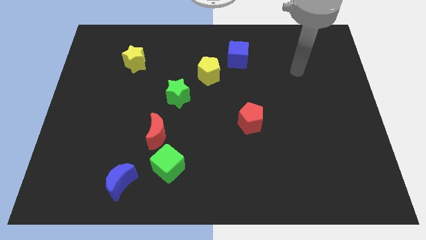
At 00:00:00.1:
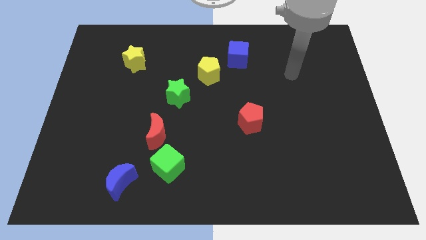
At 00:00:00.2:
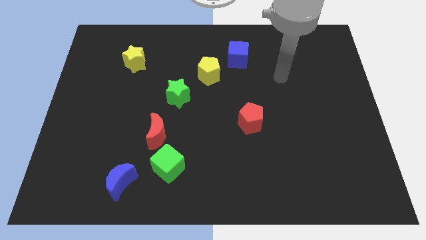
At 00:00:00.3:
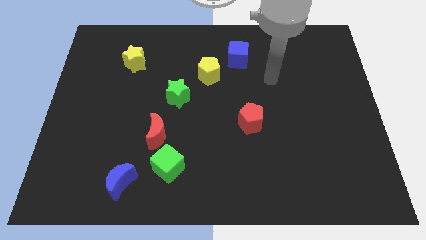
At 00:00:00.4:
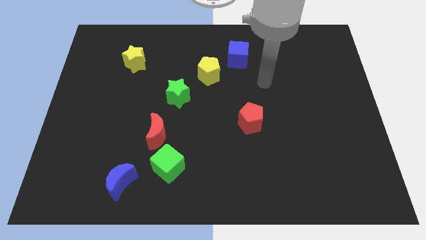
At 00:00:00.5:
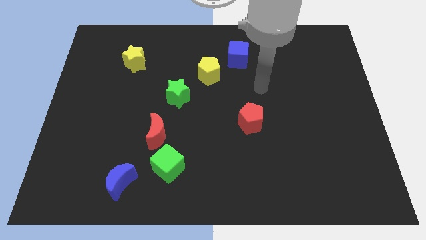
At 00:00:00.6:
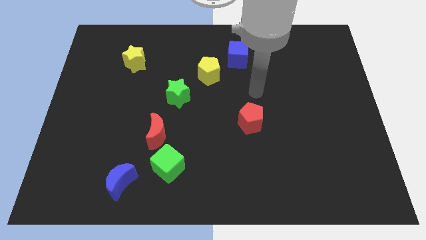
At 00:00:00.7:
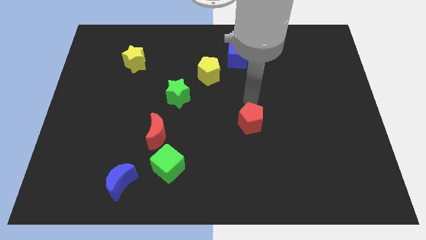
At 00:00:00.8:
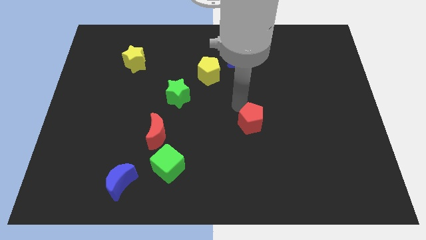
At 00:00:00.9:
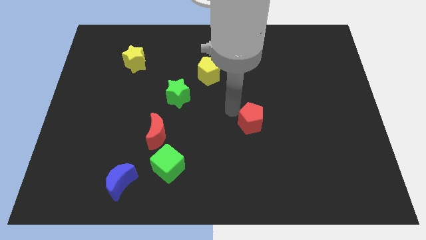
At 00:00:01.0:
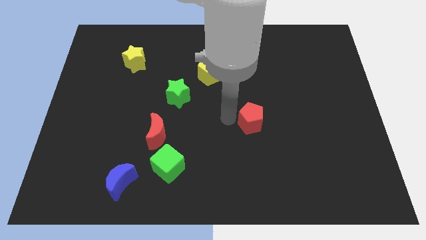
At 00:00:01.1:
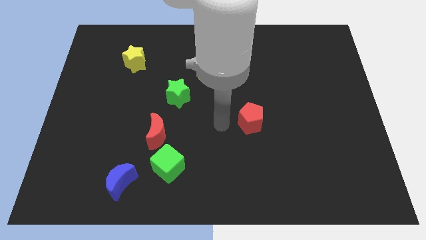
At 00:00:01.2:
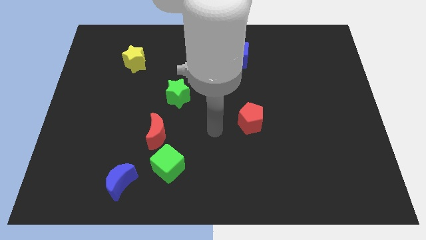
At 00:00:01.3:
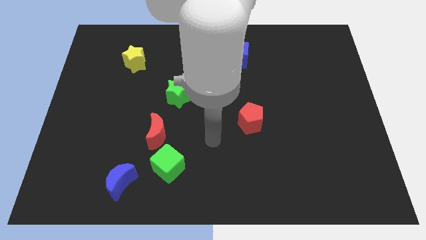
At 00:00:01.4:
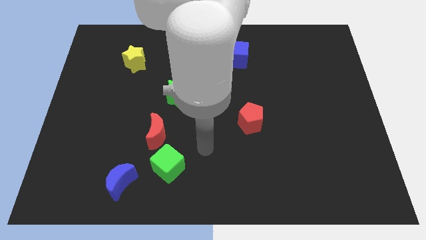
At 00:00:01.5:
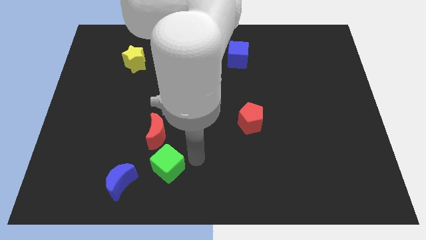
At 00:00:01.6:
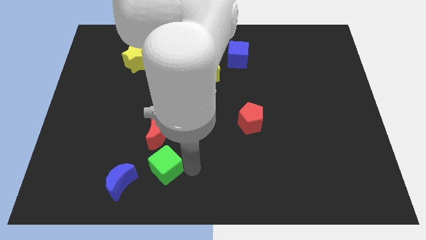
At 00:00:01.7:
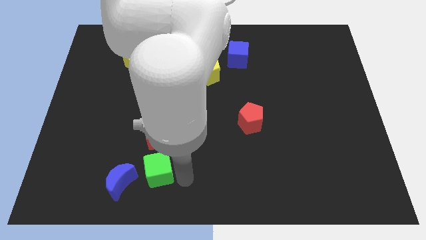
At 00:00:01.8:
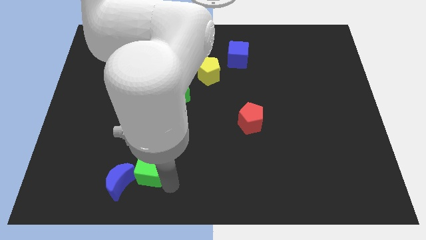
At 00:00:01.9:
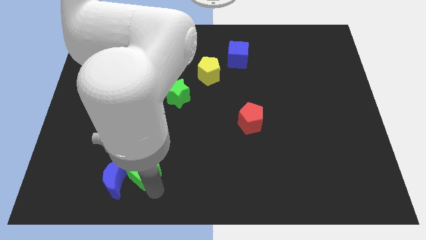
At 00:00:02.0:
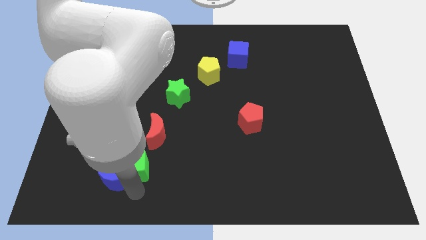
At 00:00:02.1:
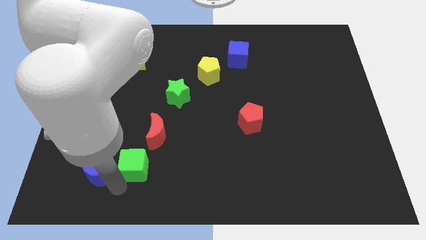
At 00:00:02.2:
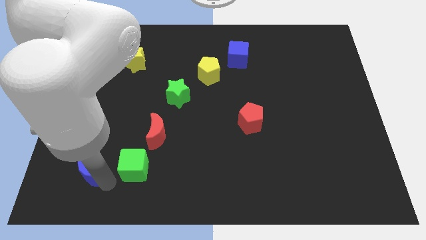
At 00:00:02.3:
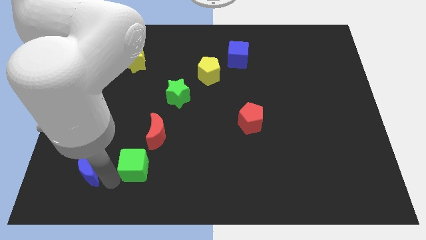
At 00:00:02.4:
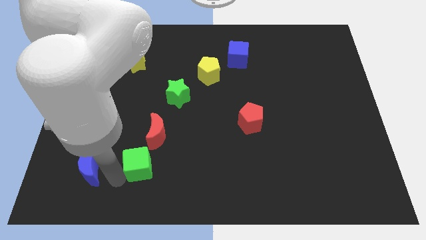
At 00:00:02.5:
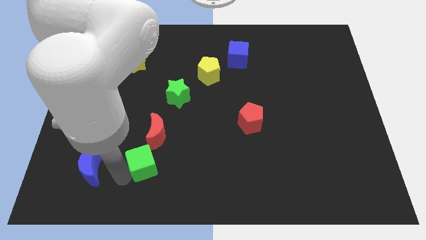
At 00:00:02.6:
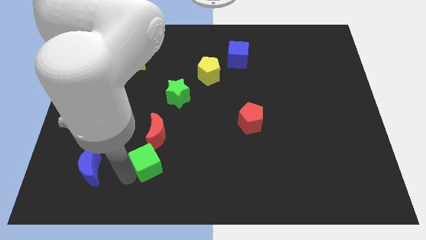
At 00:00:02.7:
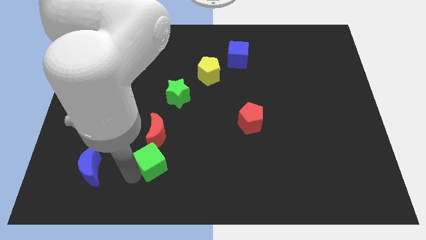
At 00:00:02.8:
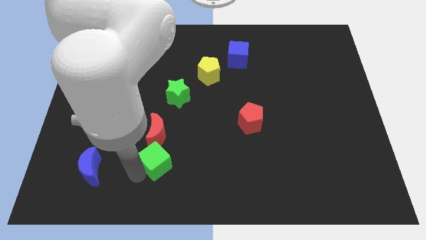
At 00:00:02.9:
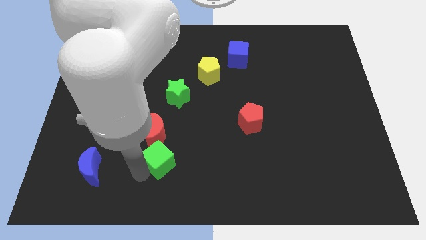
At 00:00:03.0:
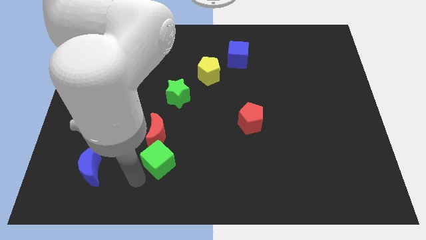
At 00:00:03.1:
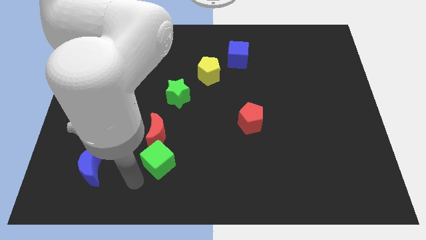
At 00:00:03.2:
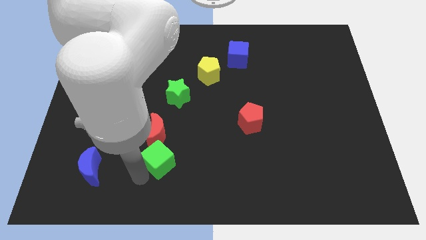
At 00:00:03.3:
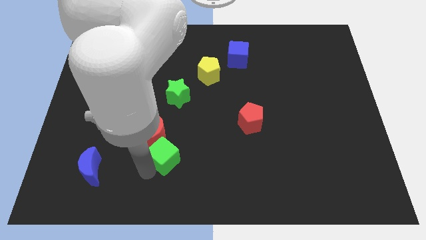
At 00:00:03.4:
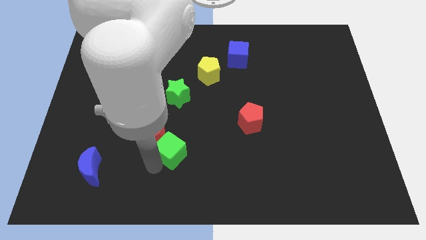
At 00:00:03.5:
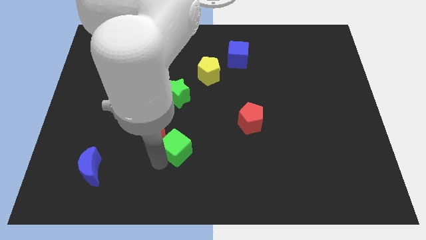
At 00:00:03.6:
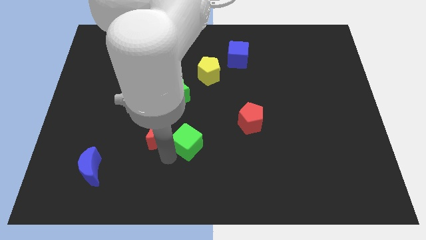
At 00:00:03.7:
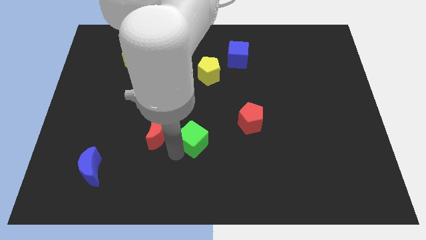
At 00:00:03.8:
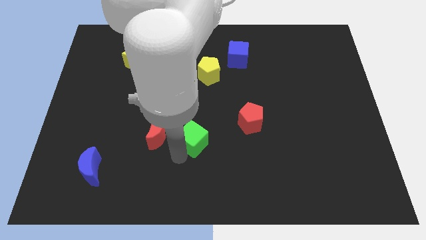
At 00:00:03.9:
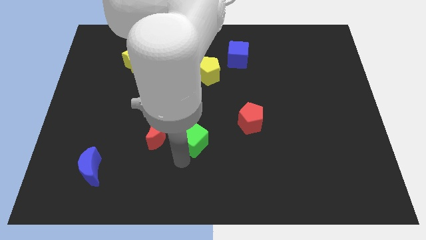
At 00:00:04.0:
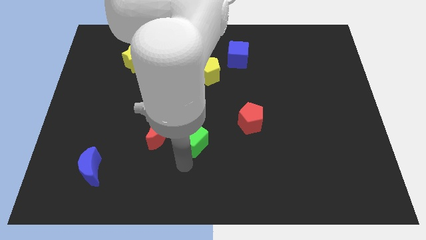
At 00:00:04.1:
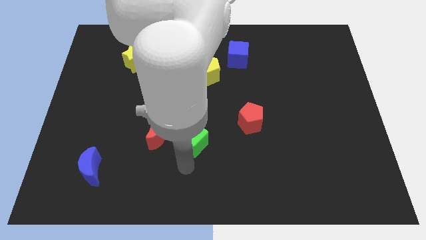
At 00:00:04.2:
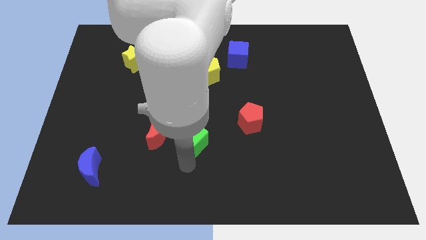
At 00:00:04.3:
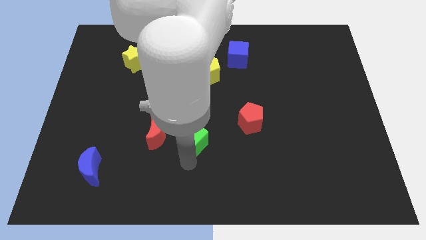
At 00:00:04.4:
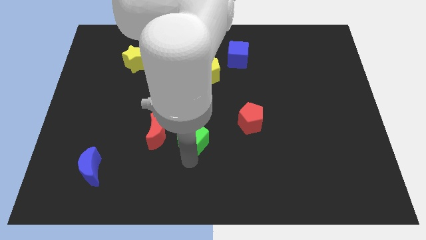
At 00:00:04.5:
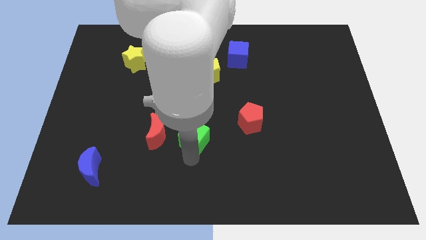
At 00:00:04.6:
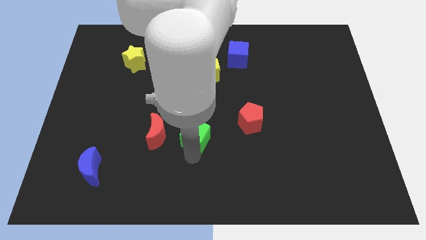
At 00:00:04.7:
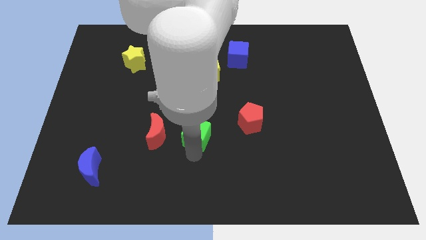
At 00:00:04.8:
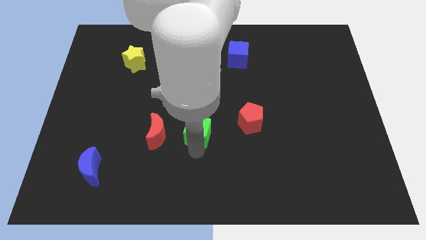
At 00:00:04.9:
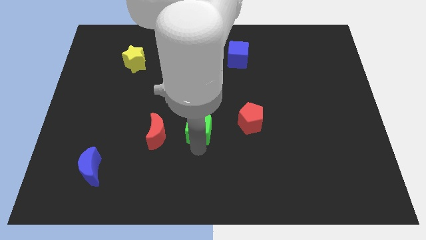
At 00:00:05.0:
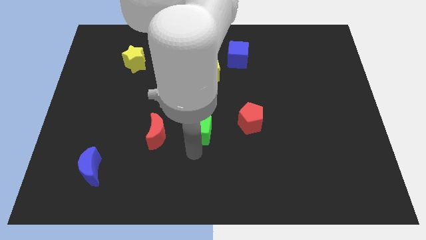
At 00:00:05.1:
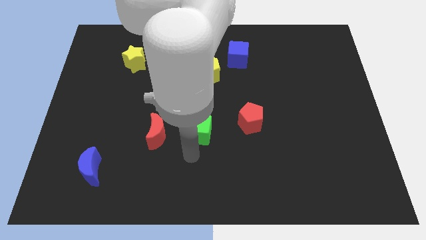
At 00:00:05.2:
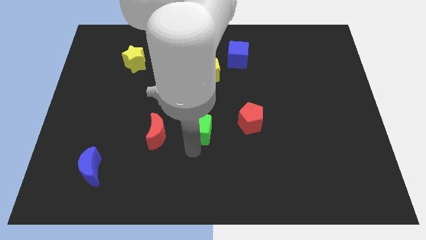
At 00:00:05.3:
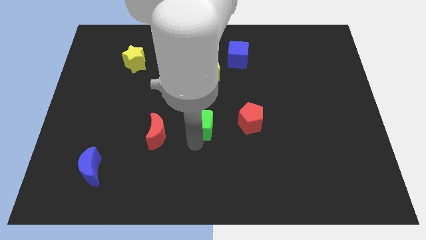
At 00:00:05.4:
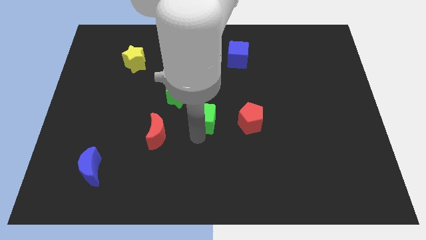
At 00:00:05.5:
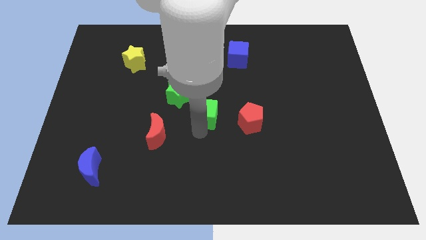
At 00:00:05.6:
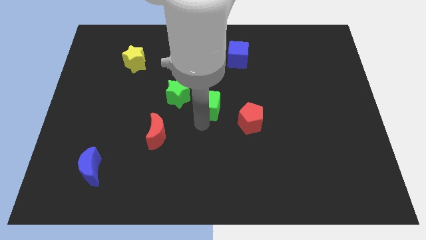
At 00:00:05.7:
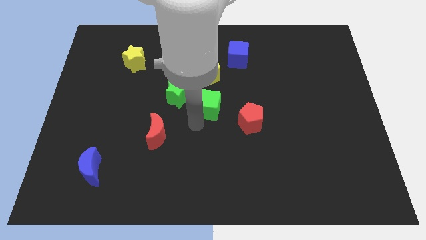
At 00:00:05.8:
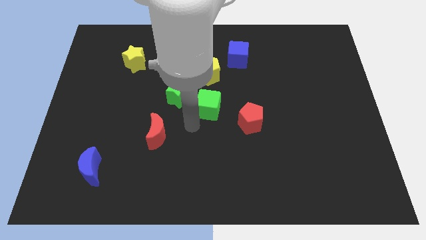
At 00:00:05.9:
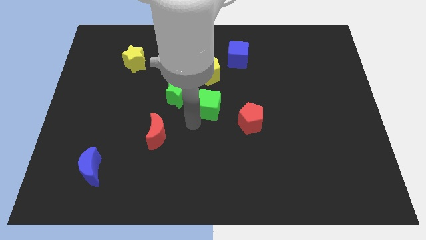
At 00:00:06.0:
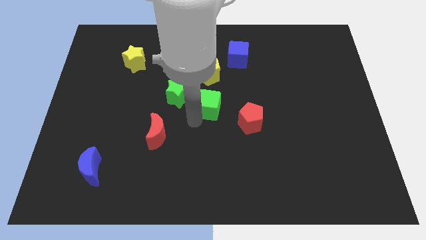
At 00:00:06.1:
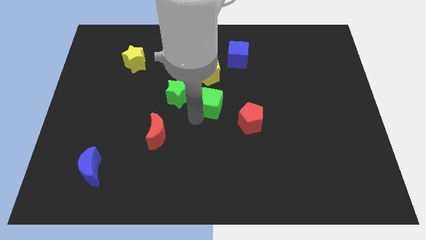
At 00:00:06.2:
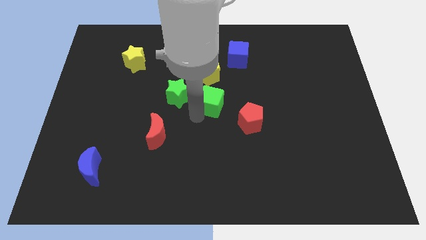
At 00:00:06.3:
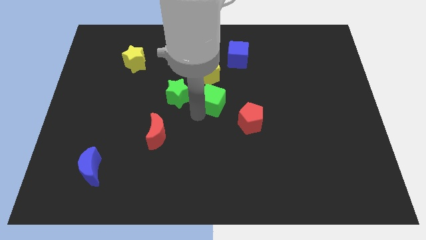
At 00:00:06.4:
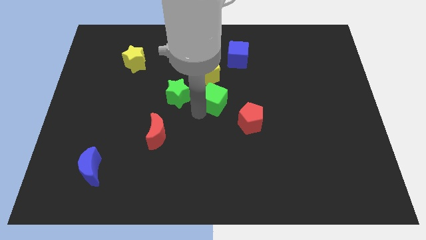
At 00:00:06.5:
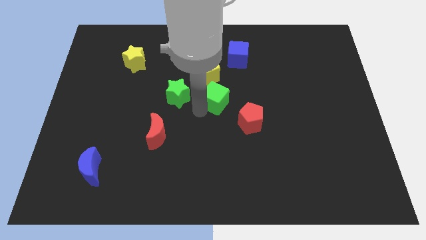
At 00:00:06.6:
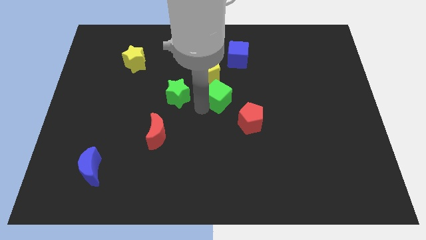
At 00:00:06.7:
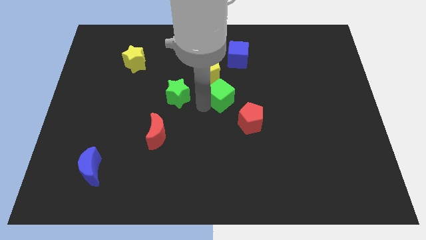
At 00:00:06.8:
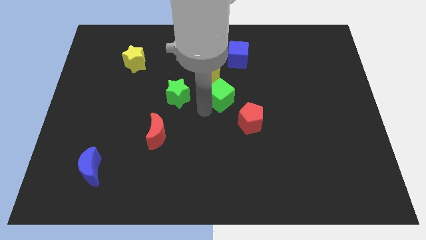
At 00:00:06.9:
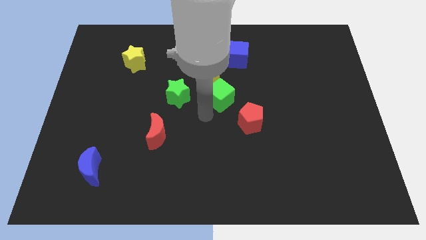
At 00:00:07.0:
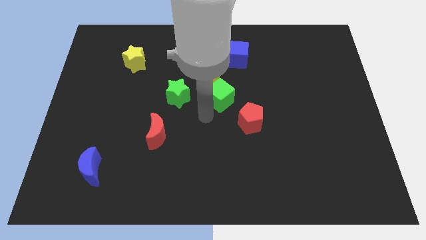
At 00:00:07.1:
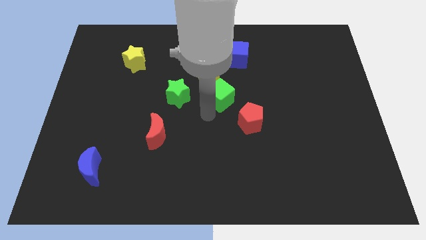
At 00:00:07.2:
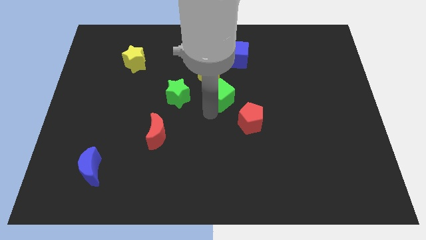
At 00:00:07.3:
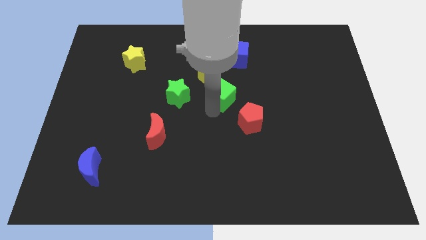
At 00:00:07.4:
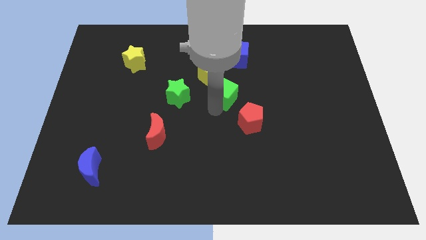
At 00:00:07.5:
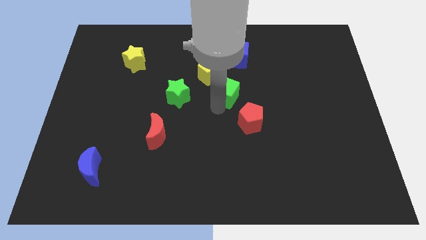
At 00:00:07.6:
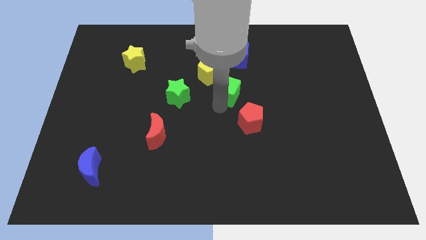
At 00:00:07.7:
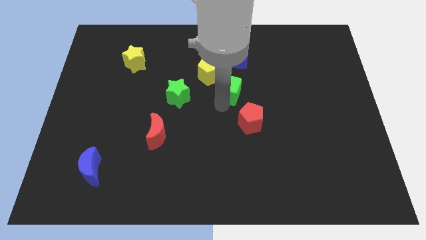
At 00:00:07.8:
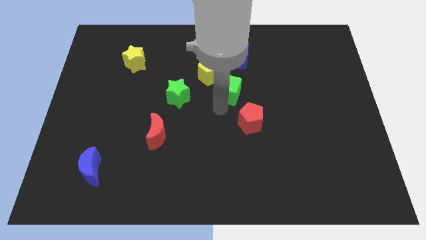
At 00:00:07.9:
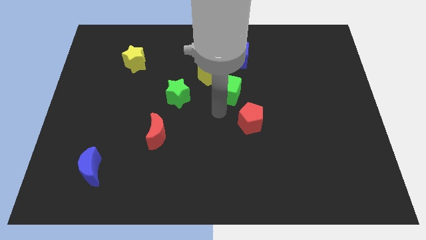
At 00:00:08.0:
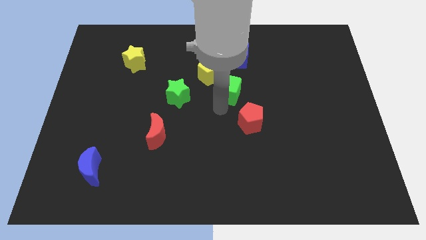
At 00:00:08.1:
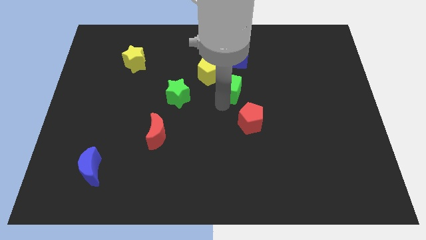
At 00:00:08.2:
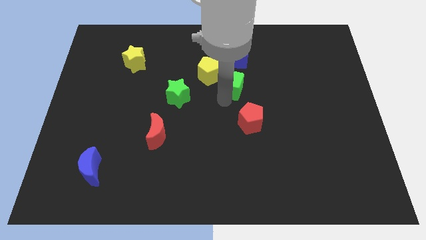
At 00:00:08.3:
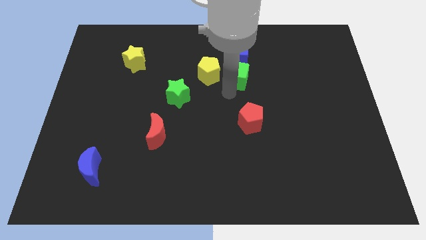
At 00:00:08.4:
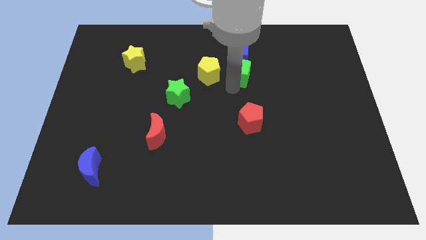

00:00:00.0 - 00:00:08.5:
slide the green cube close to the blue cube
